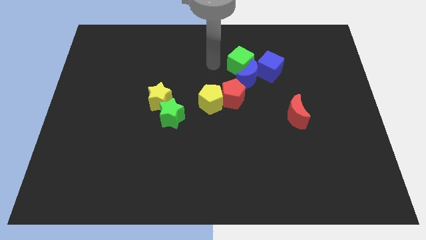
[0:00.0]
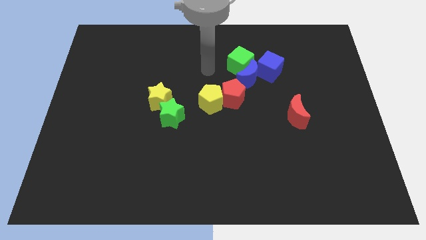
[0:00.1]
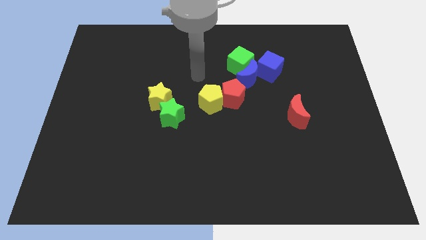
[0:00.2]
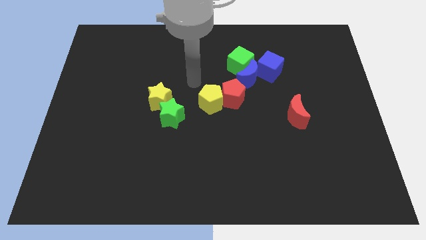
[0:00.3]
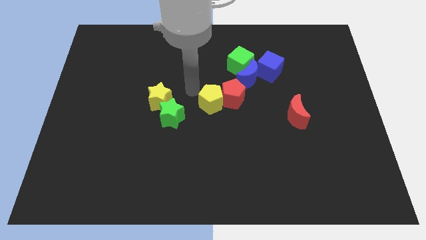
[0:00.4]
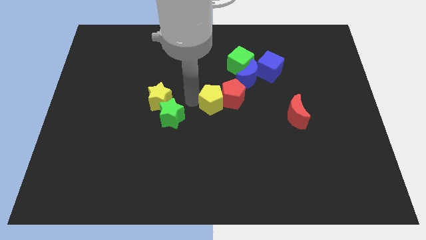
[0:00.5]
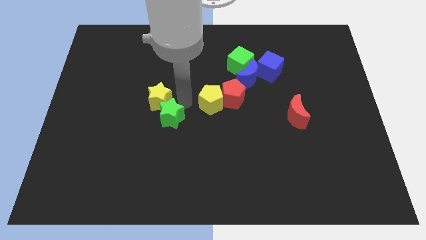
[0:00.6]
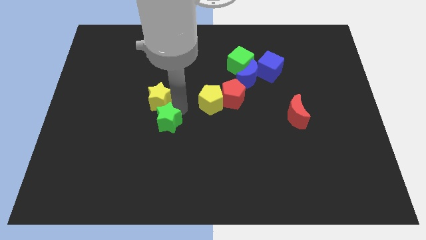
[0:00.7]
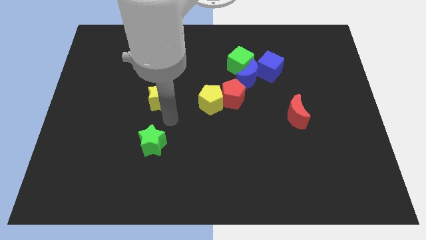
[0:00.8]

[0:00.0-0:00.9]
separate the yellow star from the green star

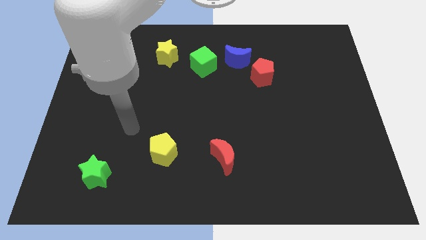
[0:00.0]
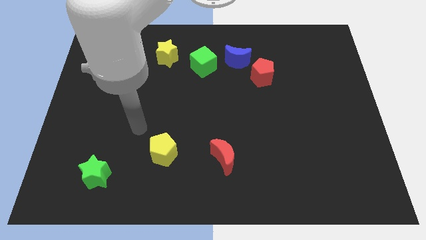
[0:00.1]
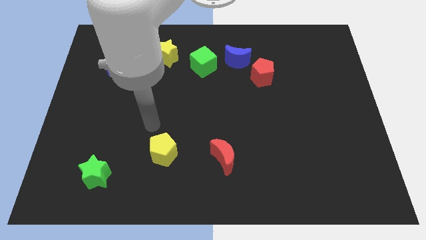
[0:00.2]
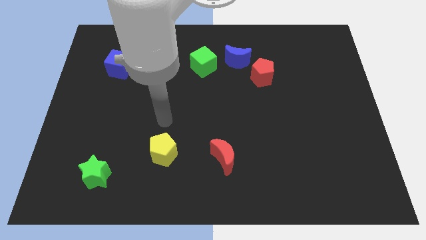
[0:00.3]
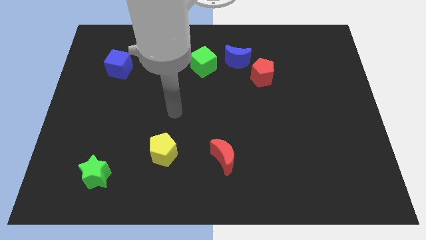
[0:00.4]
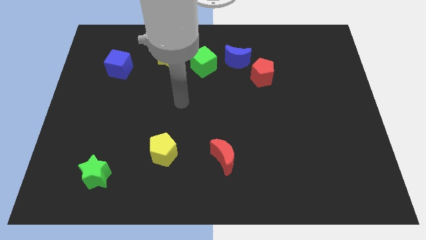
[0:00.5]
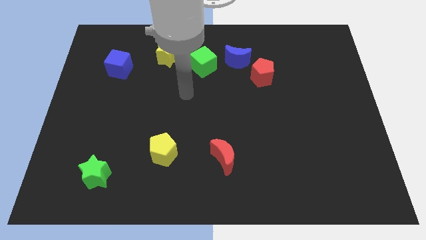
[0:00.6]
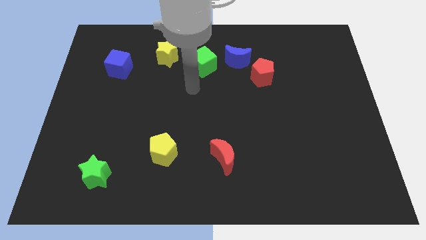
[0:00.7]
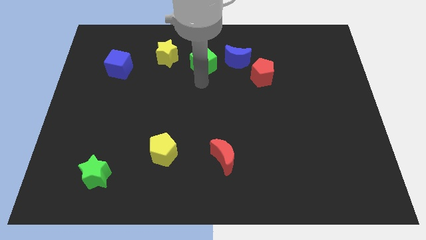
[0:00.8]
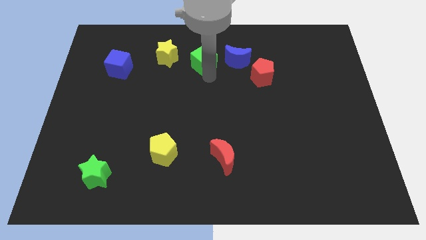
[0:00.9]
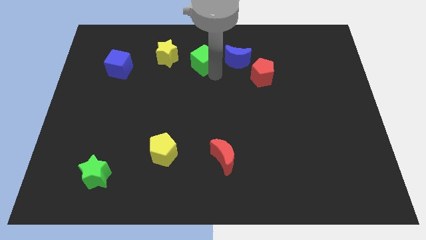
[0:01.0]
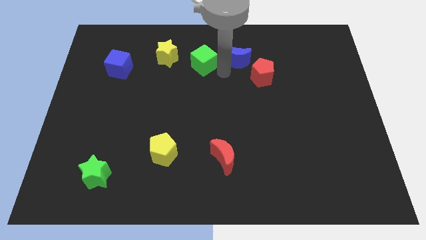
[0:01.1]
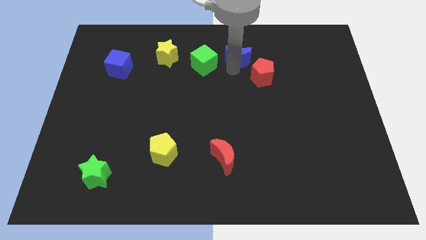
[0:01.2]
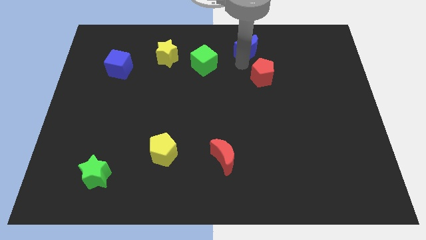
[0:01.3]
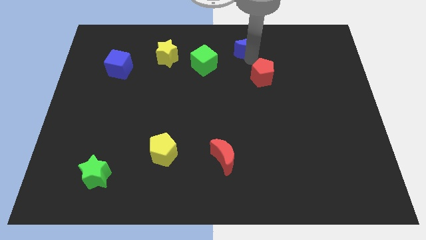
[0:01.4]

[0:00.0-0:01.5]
pull the red pentagon apart from the blue moon

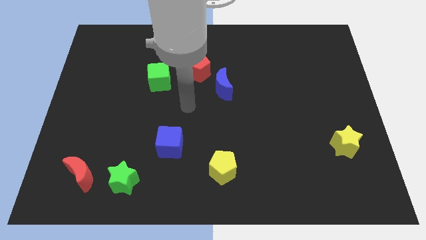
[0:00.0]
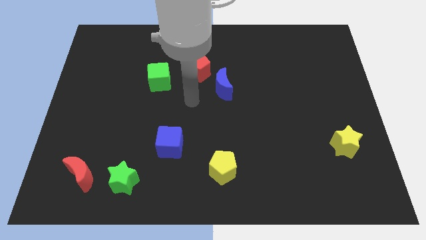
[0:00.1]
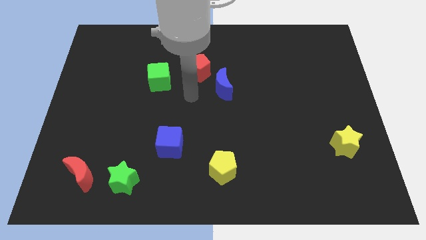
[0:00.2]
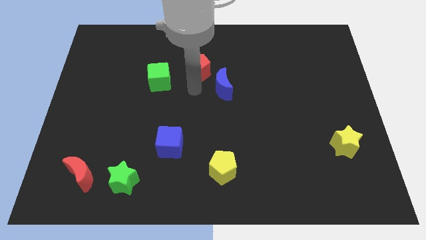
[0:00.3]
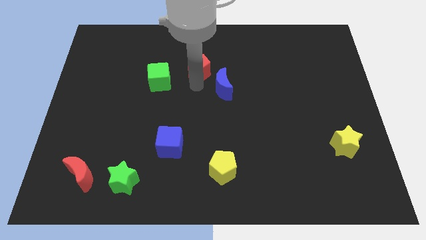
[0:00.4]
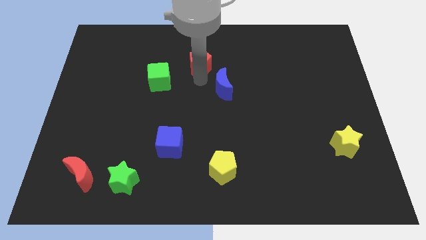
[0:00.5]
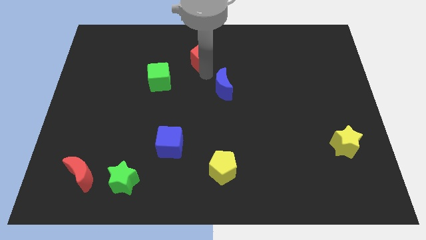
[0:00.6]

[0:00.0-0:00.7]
pull the blue moon apart from the red pentagon

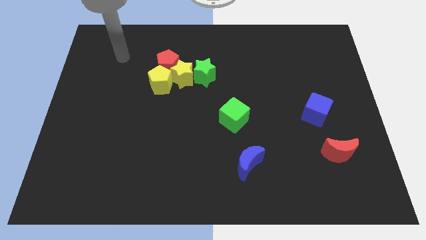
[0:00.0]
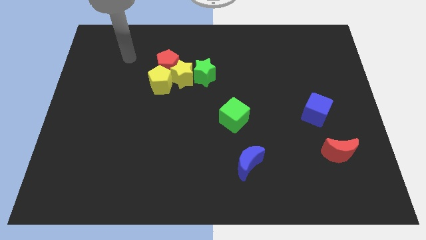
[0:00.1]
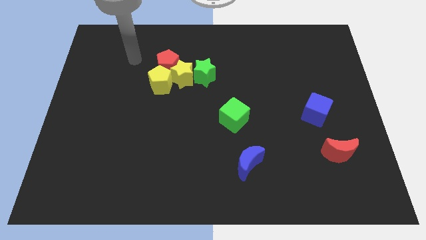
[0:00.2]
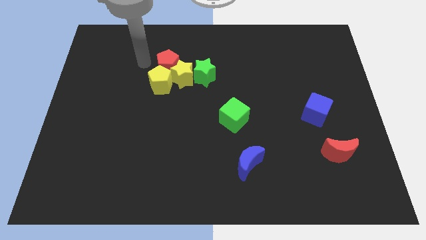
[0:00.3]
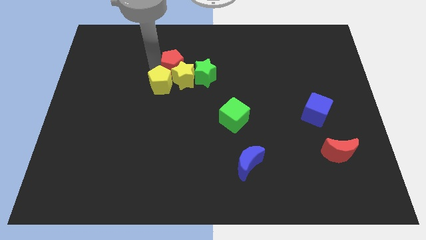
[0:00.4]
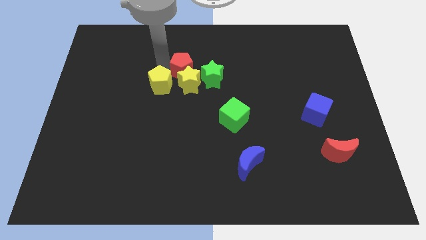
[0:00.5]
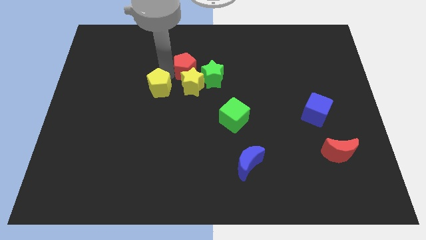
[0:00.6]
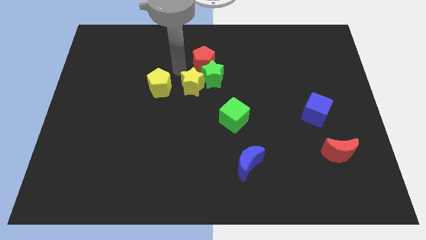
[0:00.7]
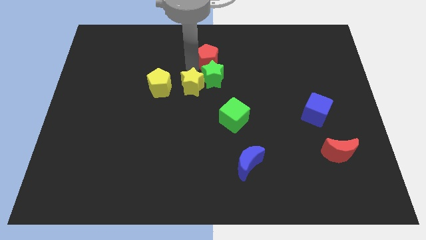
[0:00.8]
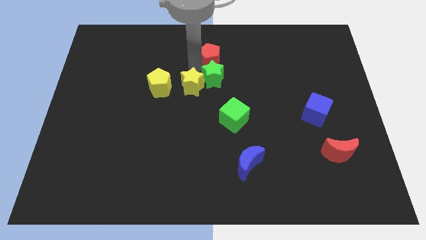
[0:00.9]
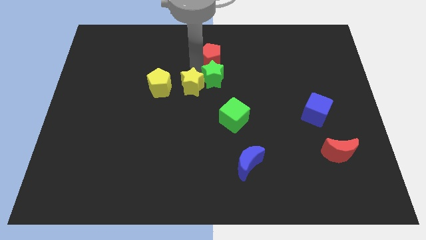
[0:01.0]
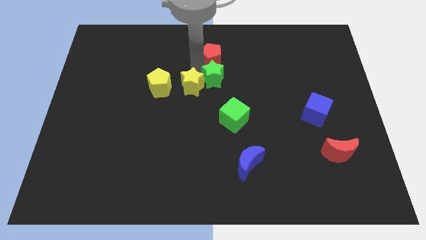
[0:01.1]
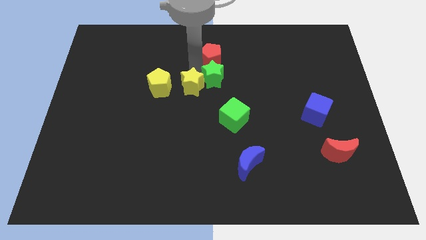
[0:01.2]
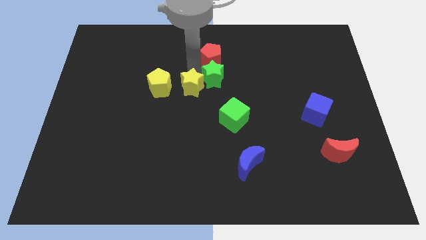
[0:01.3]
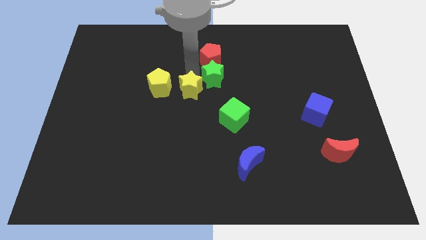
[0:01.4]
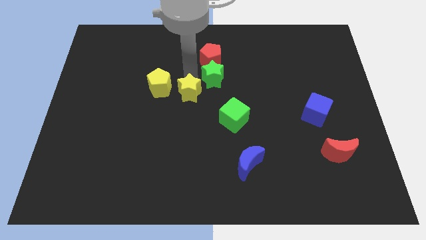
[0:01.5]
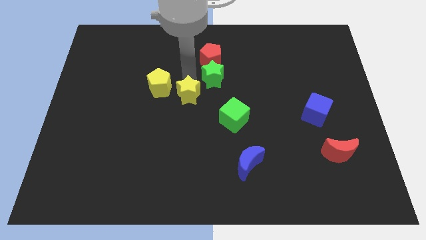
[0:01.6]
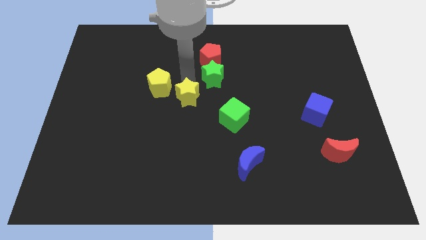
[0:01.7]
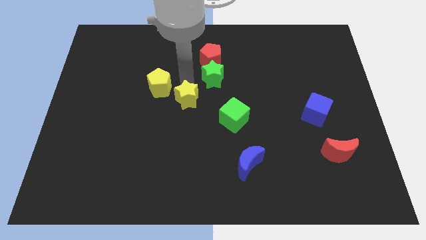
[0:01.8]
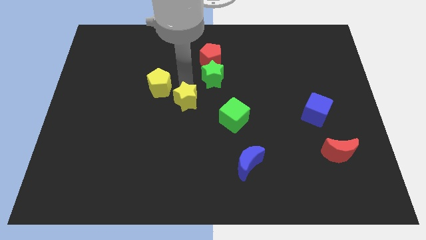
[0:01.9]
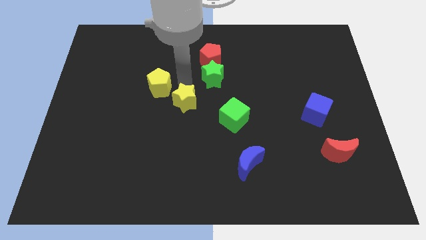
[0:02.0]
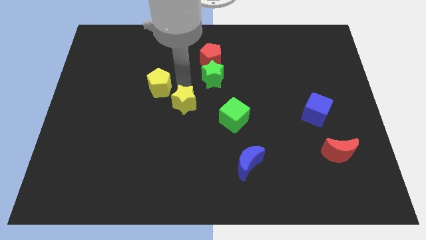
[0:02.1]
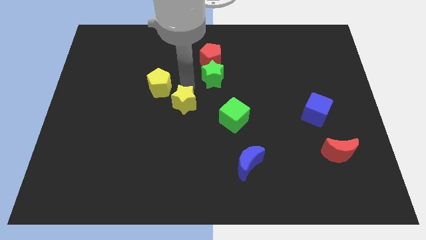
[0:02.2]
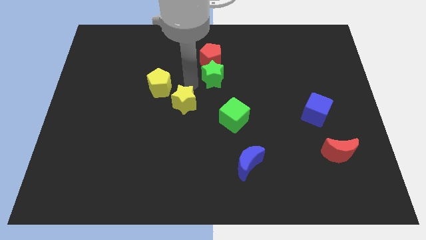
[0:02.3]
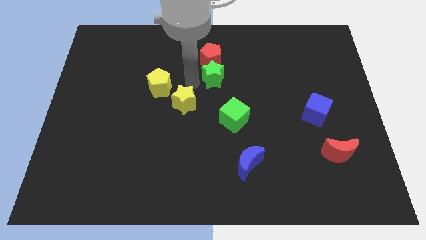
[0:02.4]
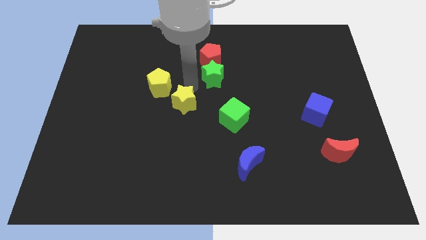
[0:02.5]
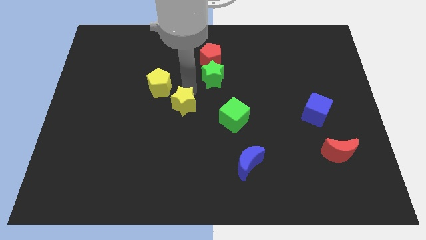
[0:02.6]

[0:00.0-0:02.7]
move the yellow star away from the clump

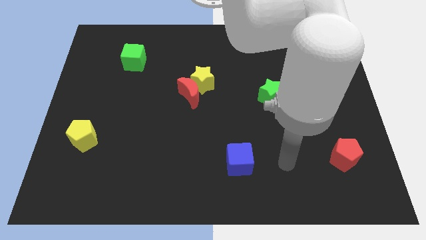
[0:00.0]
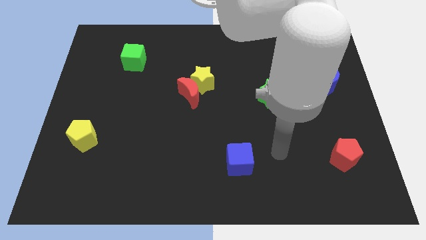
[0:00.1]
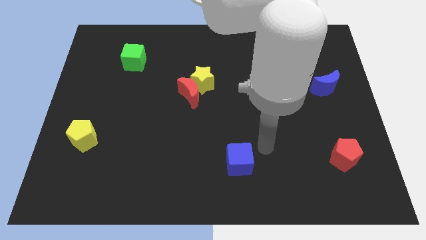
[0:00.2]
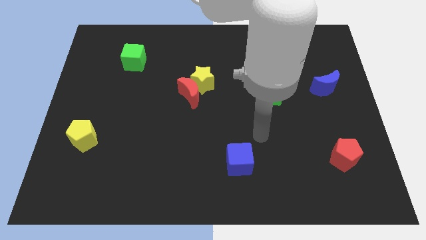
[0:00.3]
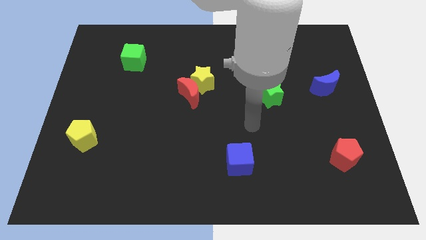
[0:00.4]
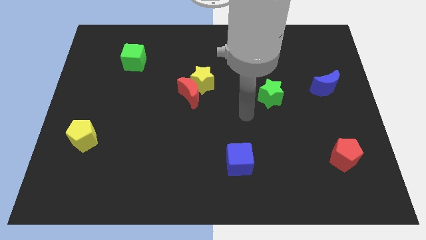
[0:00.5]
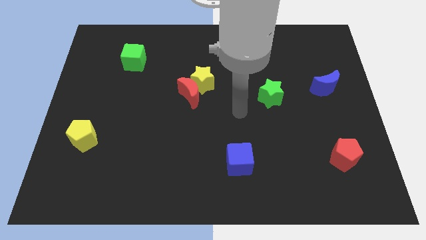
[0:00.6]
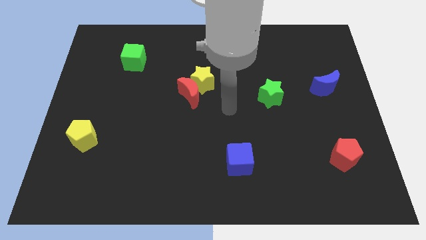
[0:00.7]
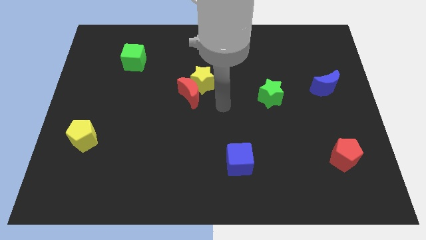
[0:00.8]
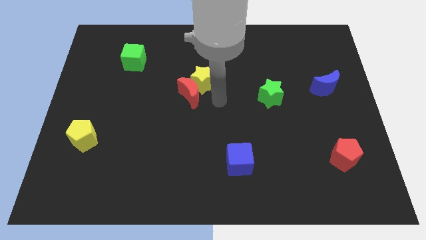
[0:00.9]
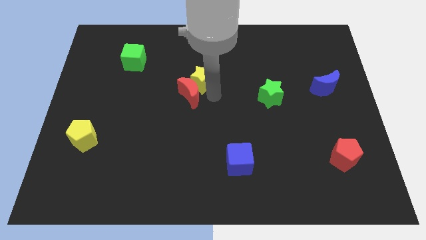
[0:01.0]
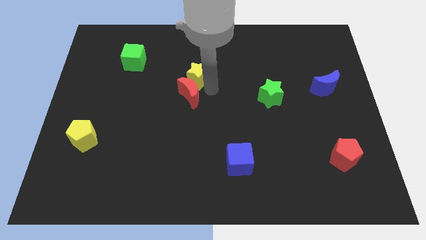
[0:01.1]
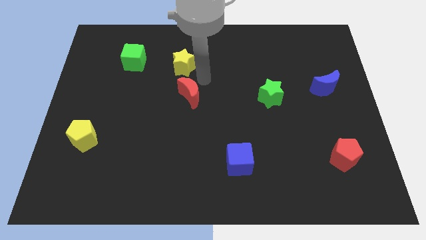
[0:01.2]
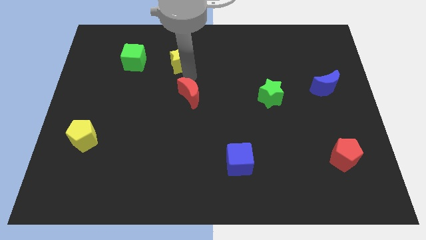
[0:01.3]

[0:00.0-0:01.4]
separate the red moon from the yellow star

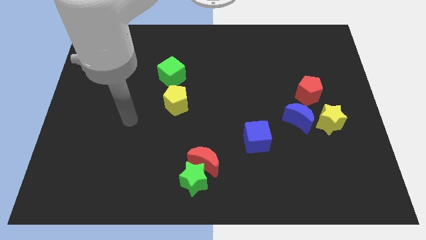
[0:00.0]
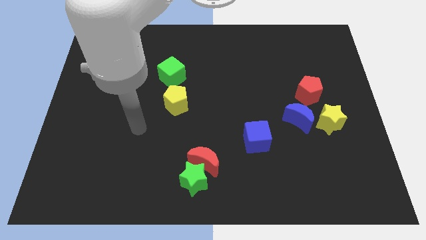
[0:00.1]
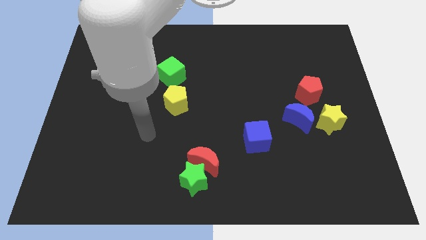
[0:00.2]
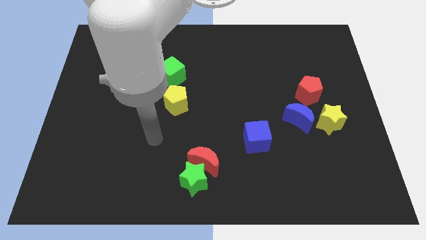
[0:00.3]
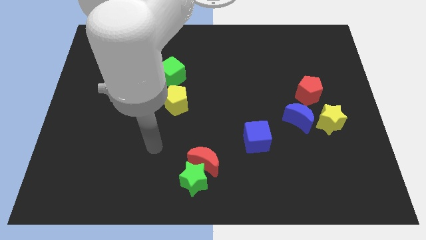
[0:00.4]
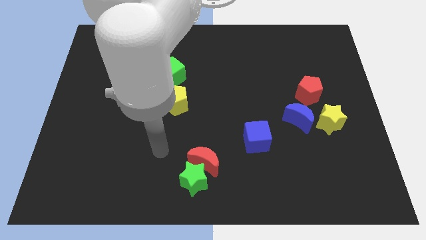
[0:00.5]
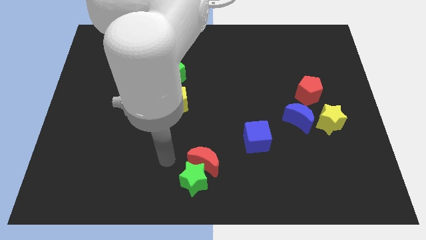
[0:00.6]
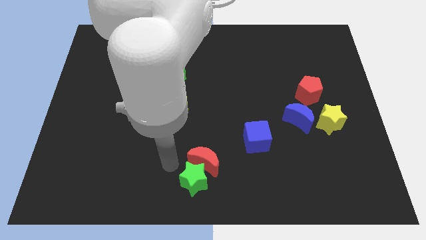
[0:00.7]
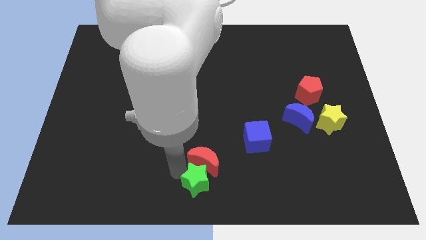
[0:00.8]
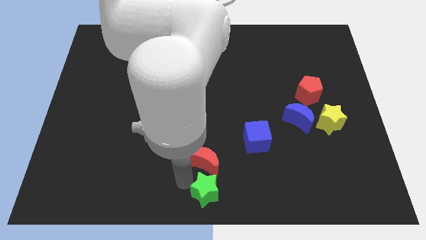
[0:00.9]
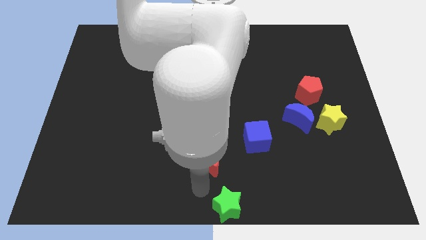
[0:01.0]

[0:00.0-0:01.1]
separate the red moon from the green star

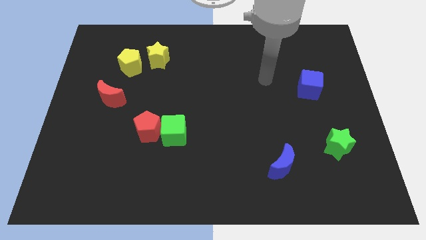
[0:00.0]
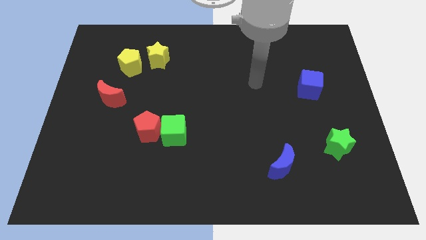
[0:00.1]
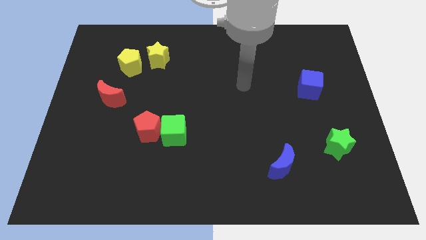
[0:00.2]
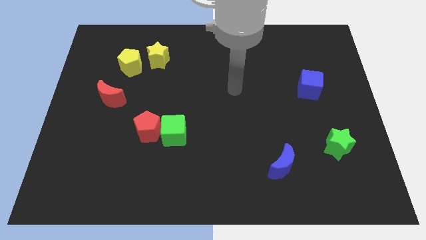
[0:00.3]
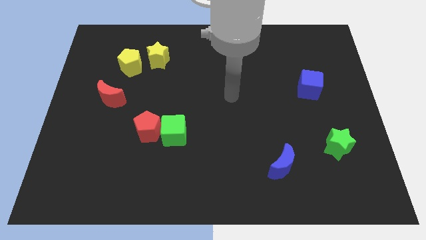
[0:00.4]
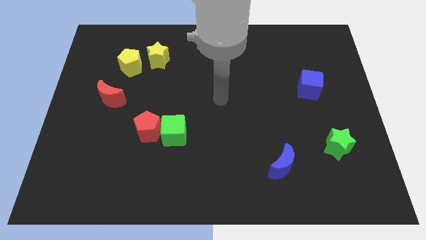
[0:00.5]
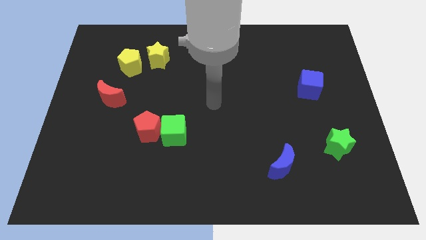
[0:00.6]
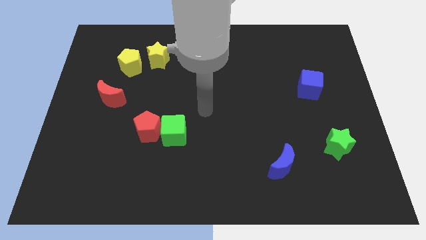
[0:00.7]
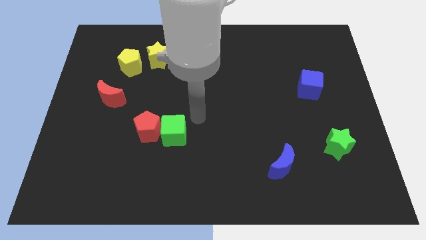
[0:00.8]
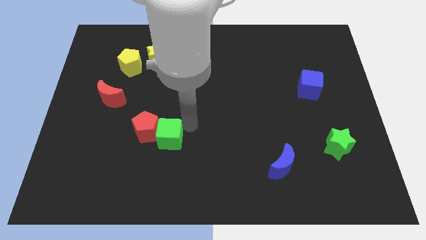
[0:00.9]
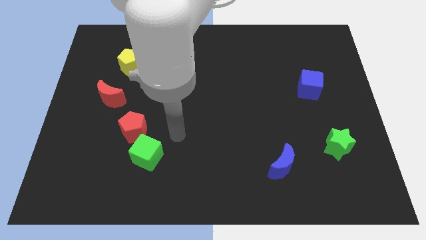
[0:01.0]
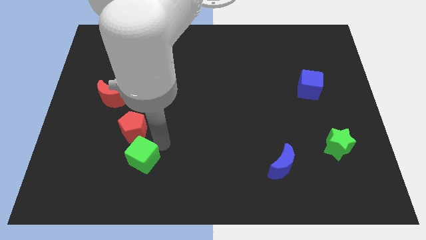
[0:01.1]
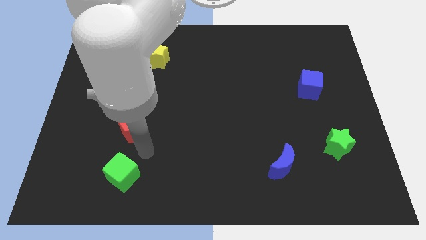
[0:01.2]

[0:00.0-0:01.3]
move the red pentagon away from the green cube
